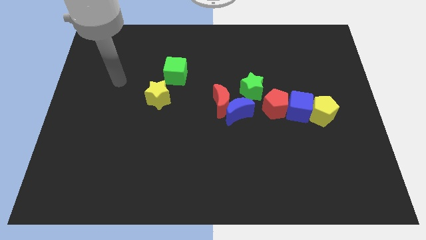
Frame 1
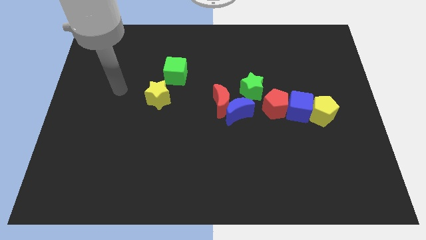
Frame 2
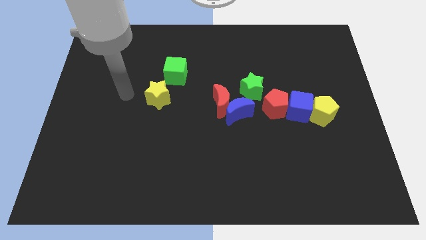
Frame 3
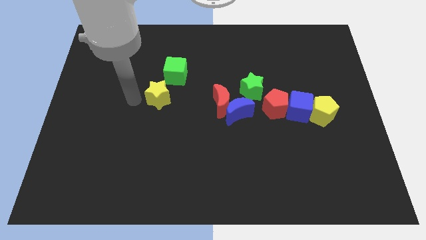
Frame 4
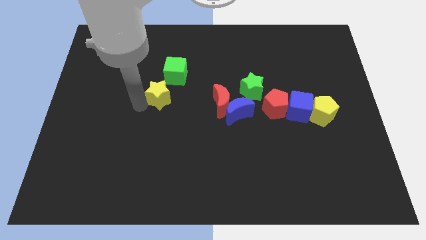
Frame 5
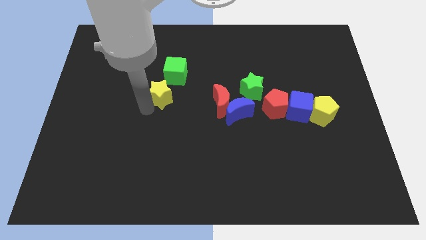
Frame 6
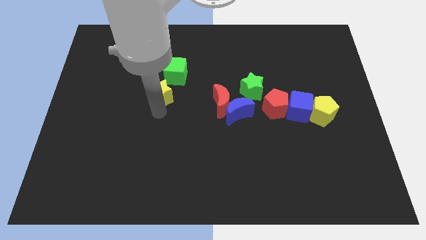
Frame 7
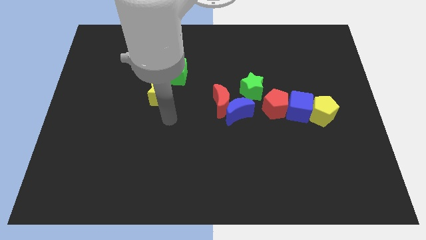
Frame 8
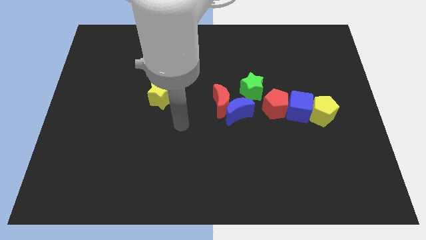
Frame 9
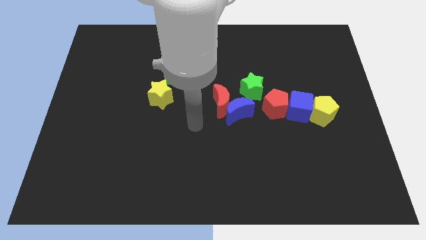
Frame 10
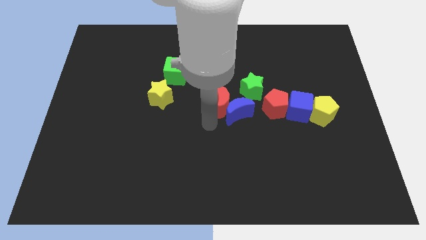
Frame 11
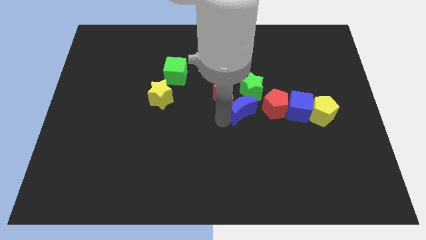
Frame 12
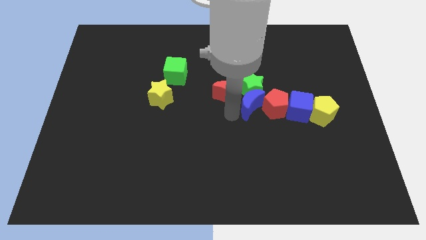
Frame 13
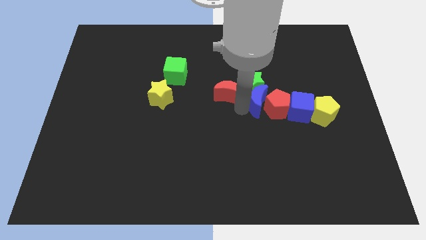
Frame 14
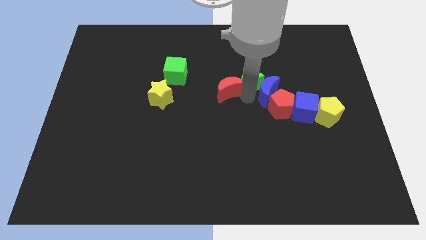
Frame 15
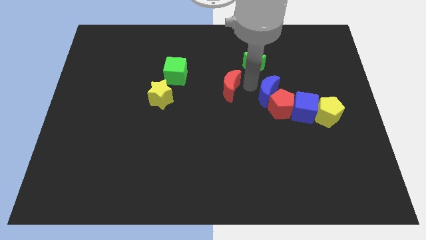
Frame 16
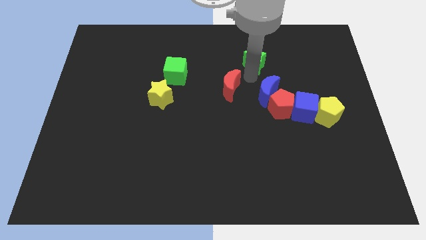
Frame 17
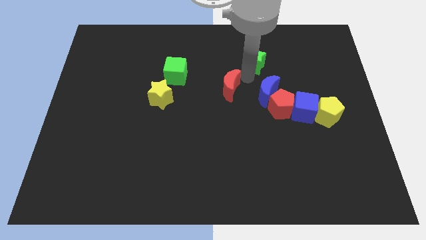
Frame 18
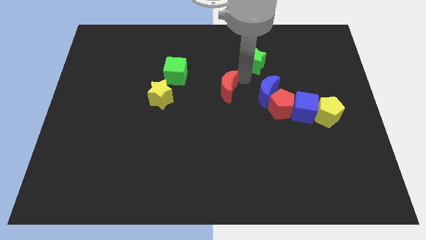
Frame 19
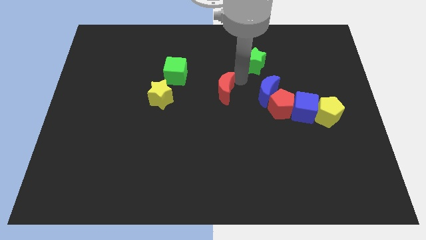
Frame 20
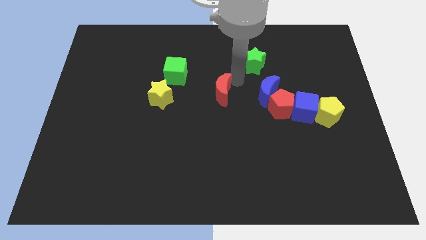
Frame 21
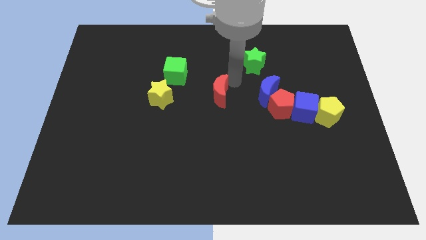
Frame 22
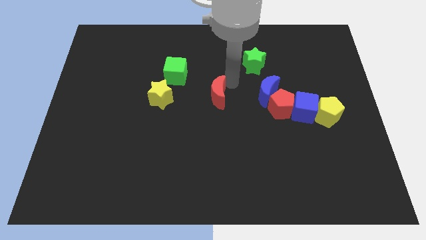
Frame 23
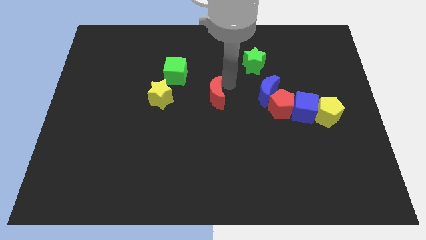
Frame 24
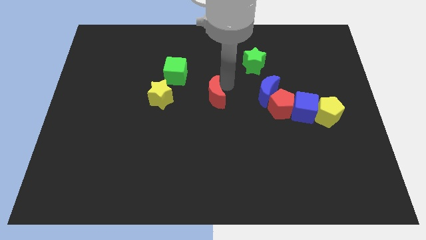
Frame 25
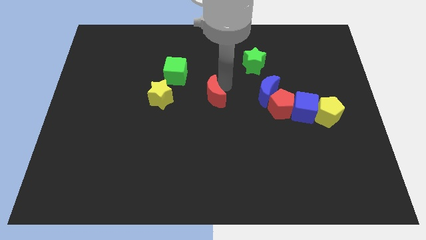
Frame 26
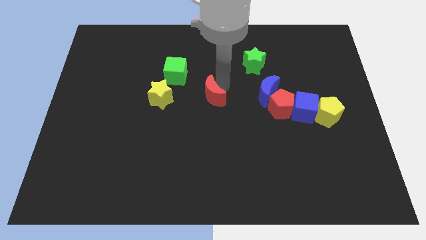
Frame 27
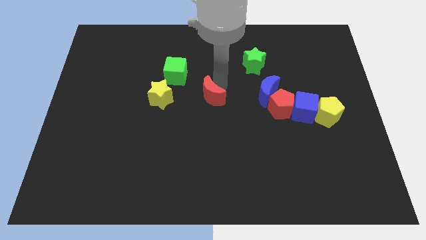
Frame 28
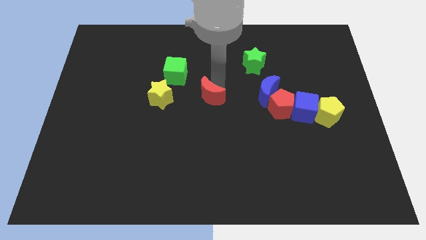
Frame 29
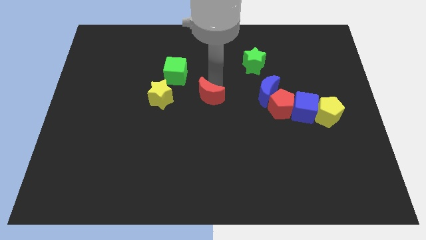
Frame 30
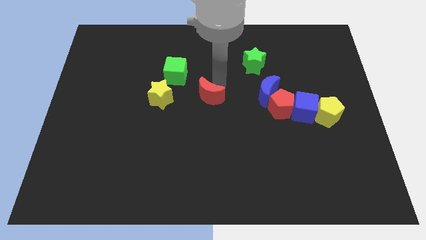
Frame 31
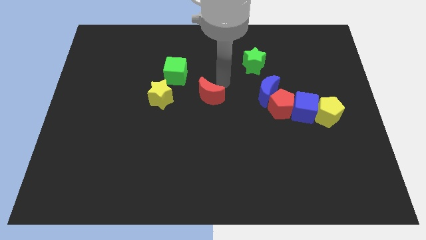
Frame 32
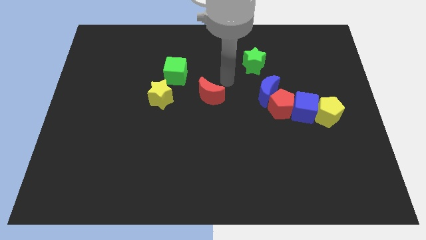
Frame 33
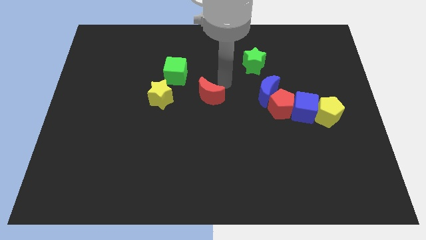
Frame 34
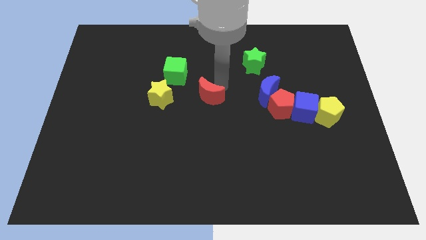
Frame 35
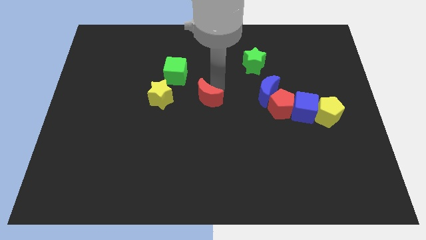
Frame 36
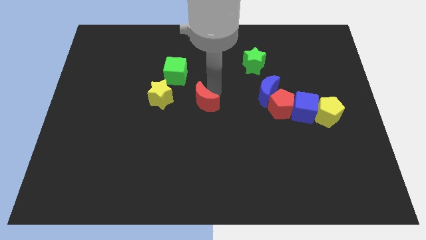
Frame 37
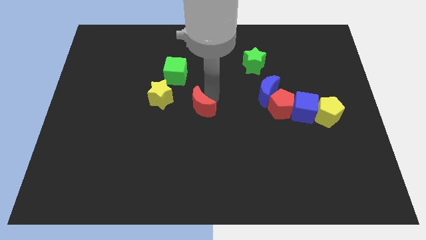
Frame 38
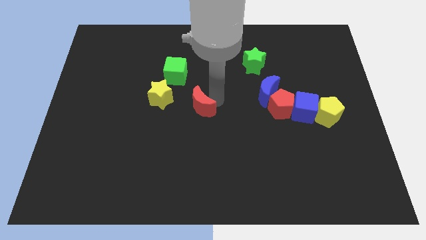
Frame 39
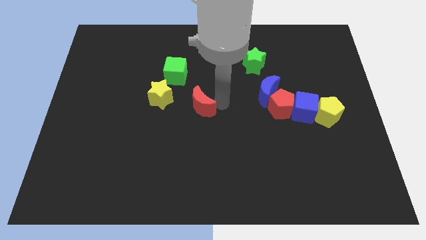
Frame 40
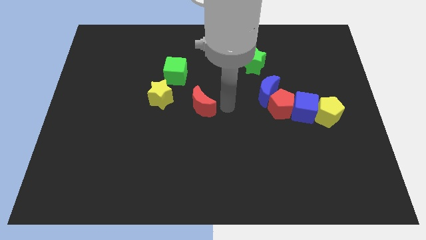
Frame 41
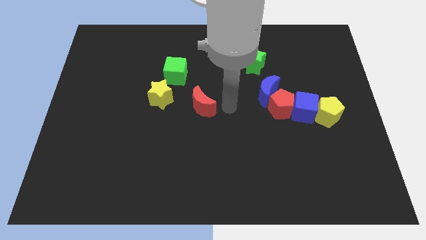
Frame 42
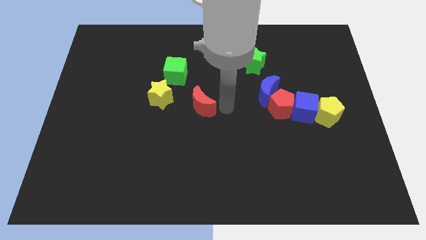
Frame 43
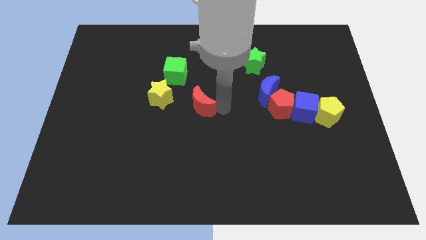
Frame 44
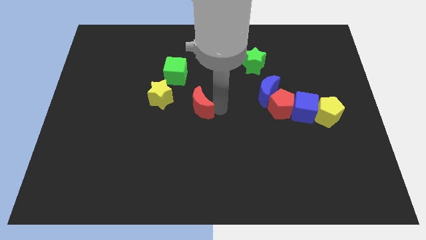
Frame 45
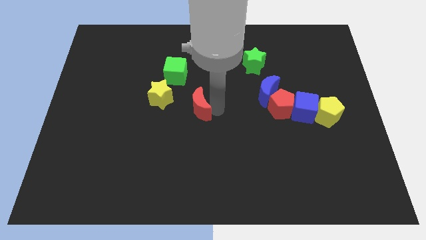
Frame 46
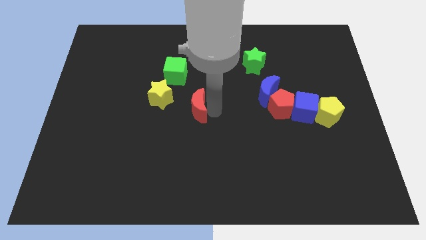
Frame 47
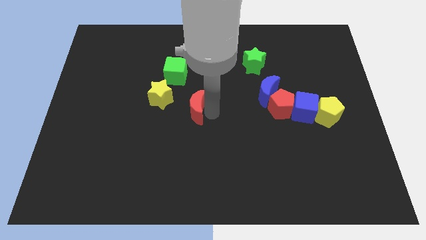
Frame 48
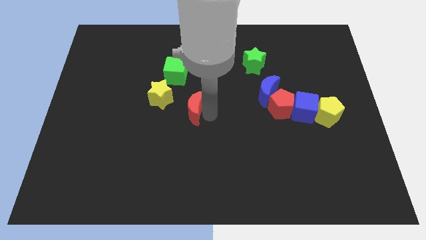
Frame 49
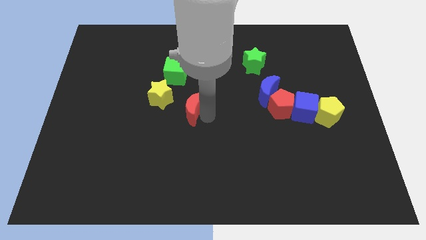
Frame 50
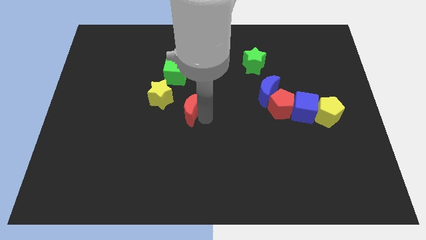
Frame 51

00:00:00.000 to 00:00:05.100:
push the red moon to the left somewhat

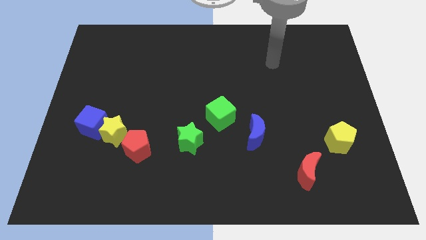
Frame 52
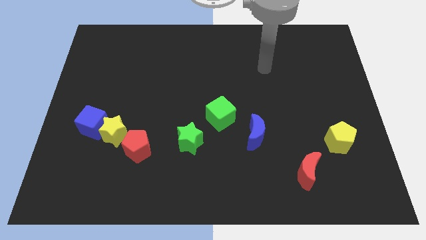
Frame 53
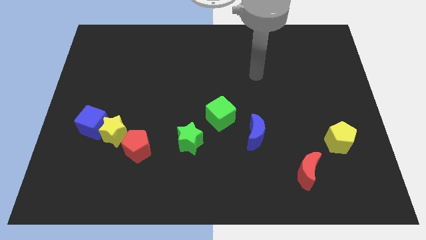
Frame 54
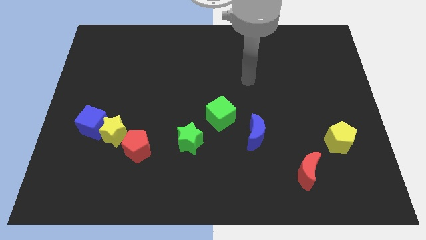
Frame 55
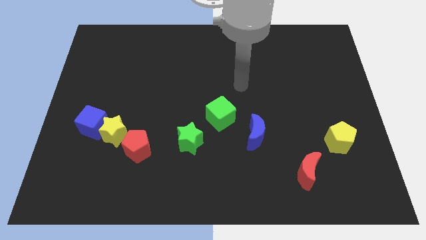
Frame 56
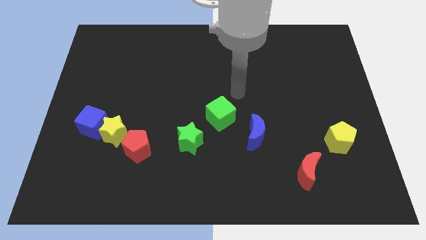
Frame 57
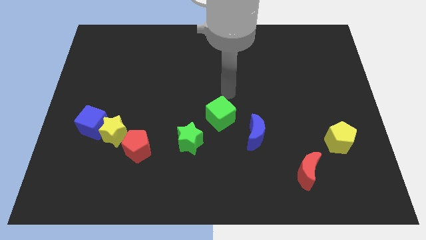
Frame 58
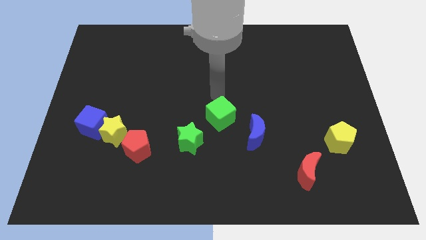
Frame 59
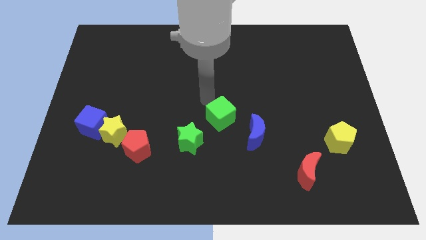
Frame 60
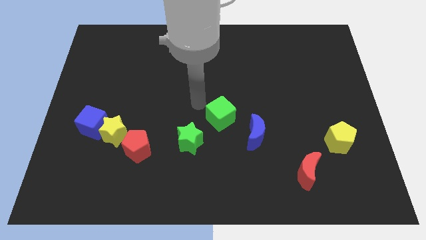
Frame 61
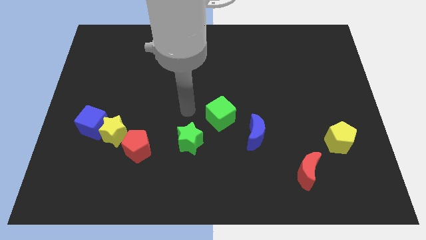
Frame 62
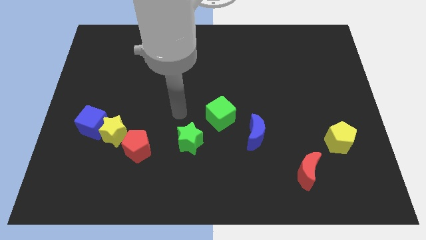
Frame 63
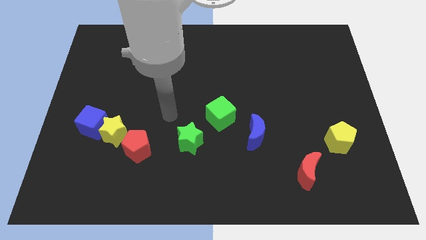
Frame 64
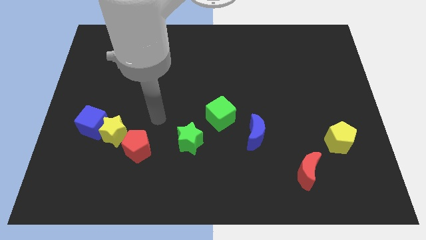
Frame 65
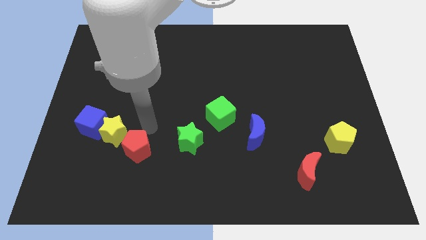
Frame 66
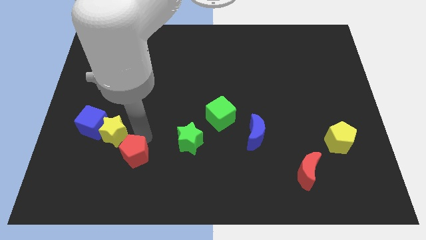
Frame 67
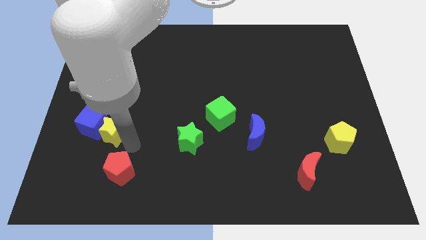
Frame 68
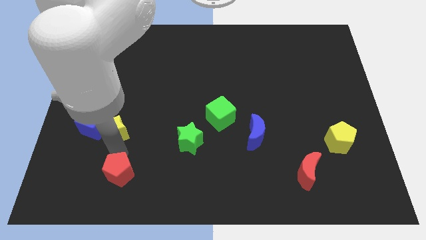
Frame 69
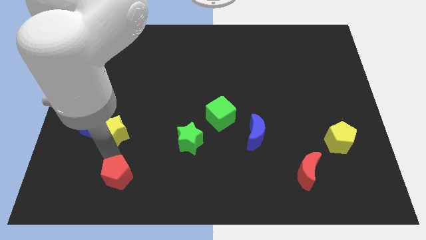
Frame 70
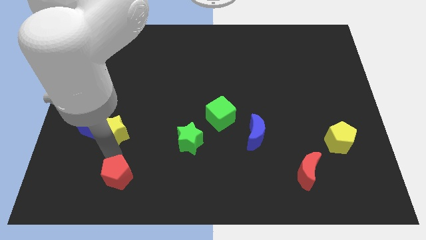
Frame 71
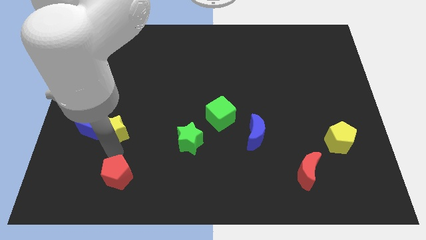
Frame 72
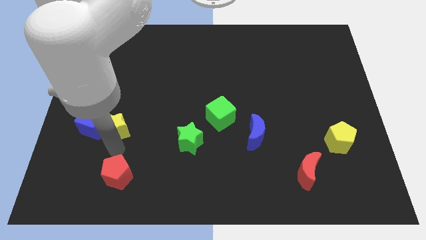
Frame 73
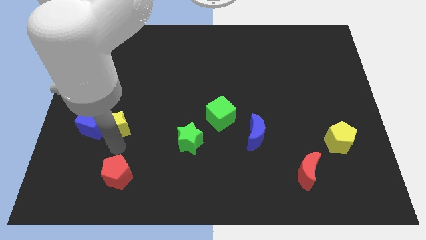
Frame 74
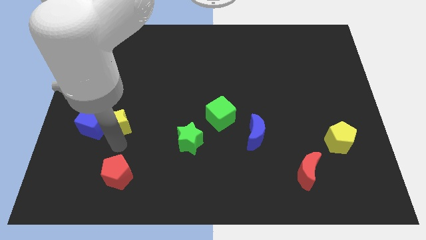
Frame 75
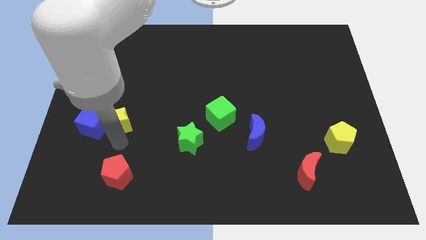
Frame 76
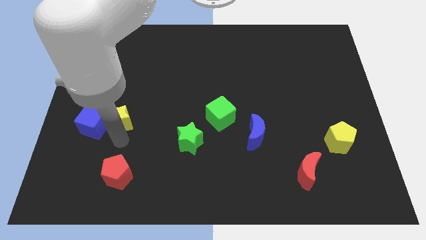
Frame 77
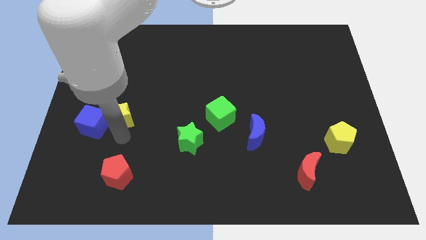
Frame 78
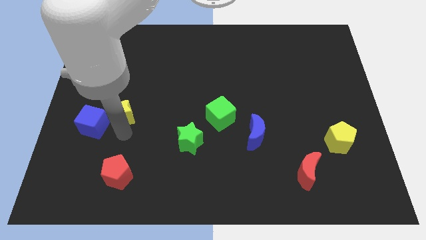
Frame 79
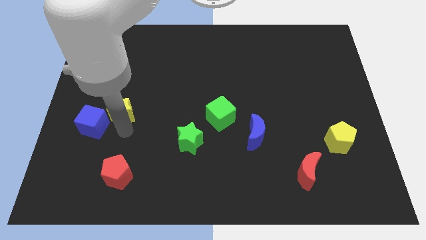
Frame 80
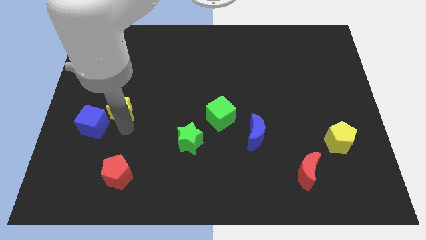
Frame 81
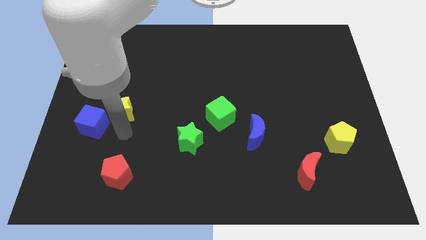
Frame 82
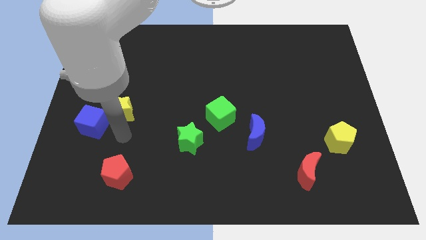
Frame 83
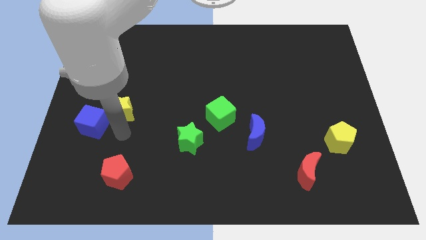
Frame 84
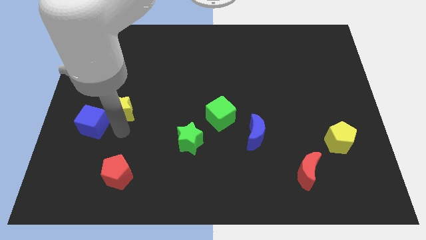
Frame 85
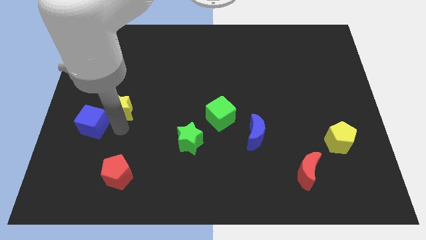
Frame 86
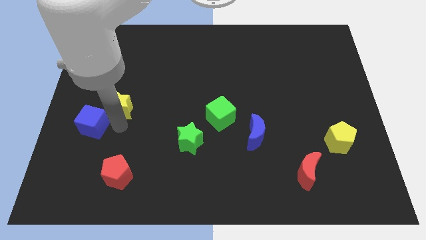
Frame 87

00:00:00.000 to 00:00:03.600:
slightly push the yellow star up
